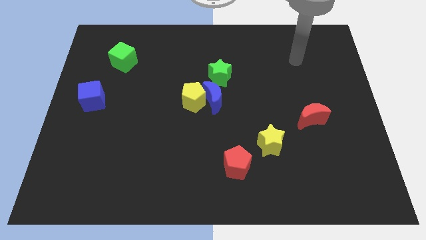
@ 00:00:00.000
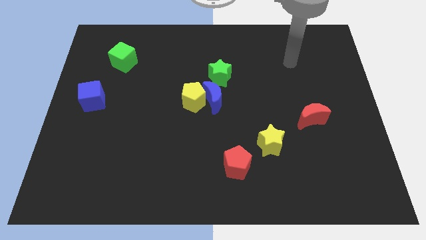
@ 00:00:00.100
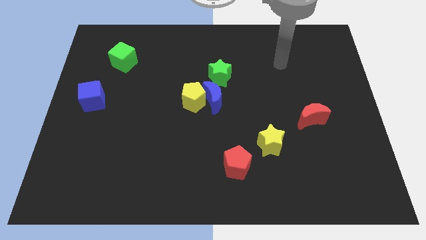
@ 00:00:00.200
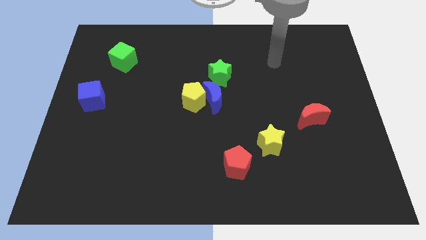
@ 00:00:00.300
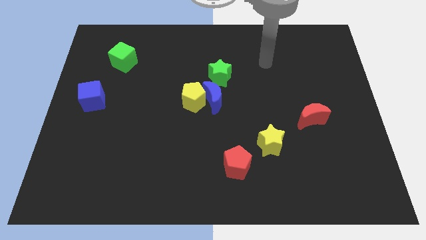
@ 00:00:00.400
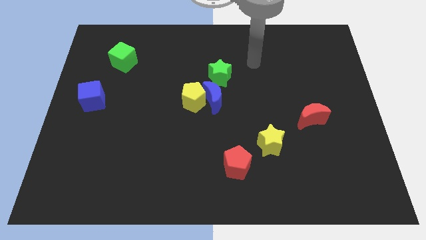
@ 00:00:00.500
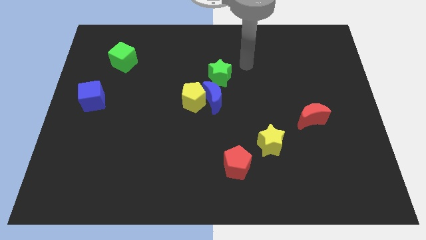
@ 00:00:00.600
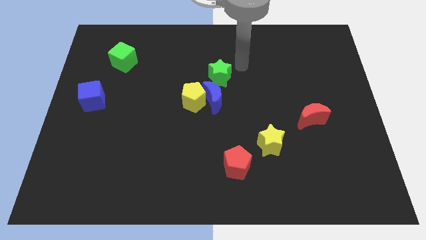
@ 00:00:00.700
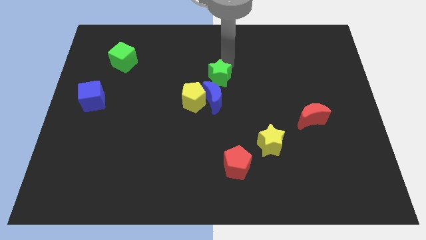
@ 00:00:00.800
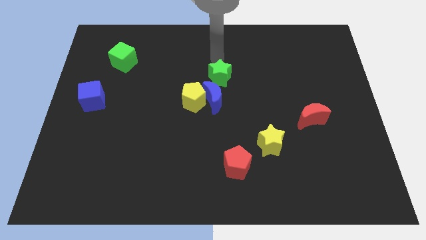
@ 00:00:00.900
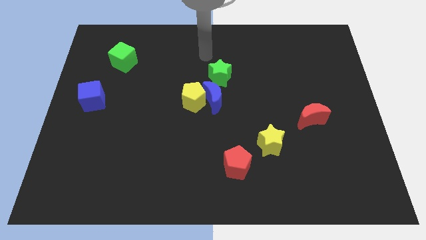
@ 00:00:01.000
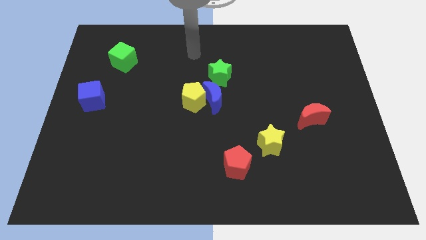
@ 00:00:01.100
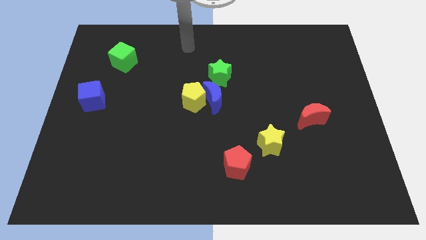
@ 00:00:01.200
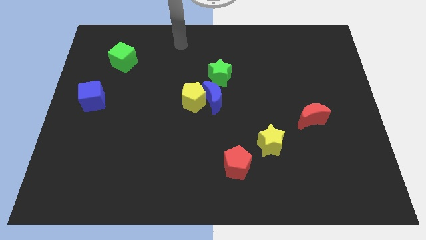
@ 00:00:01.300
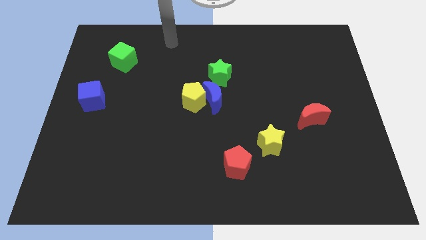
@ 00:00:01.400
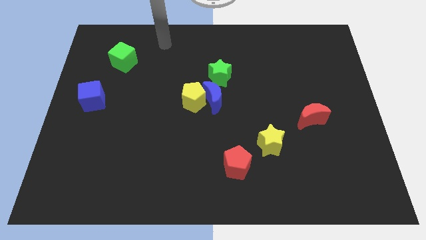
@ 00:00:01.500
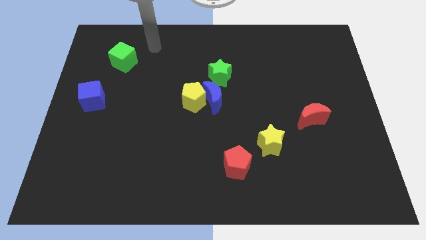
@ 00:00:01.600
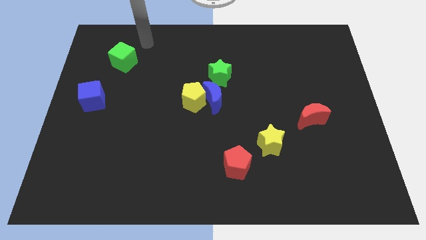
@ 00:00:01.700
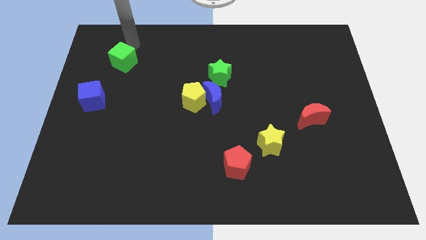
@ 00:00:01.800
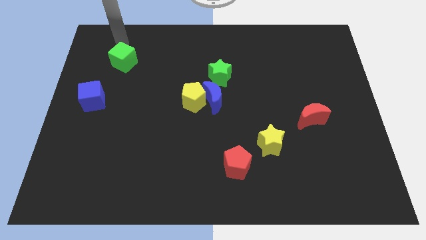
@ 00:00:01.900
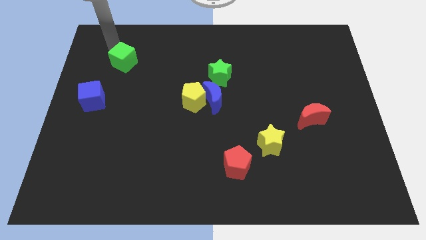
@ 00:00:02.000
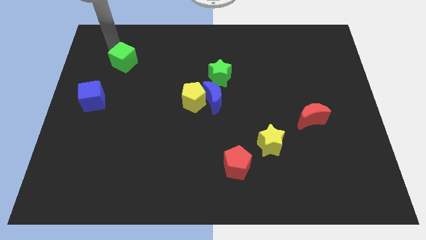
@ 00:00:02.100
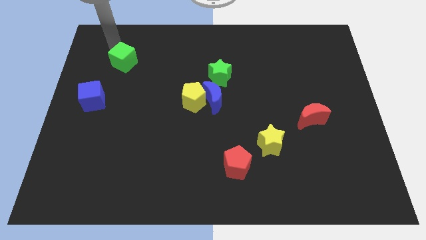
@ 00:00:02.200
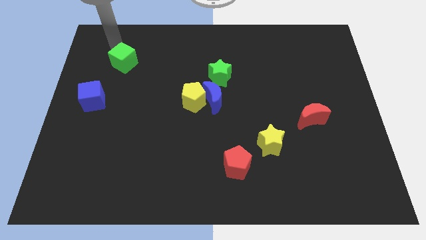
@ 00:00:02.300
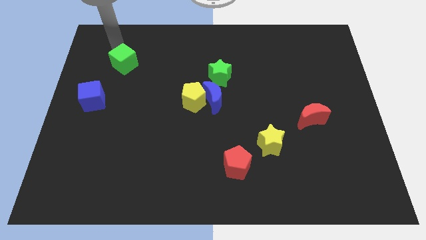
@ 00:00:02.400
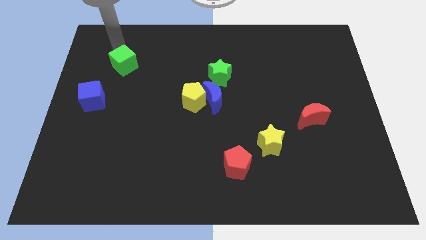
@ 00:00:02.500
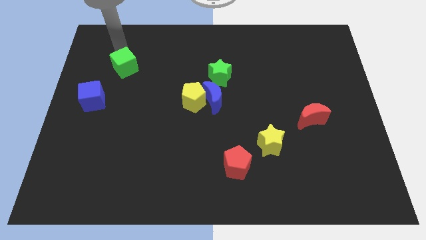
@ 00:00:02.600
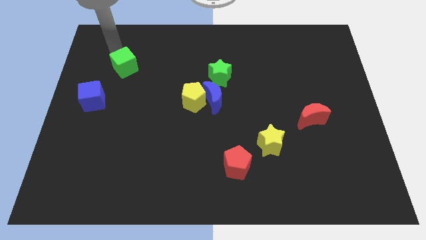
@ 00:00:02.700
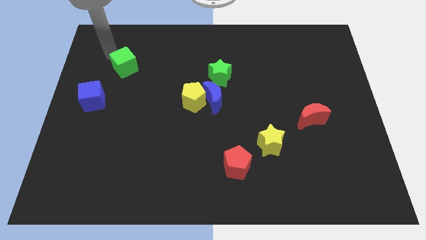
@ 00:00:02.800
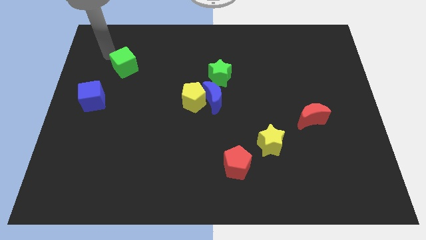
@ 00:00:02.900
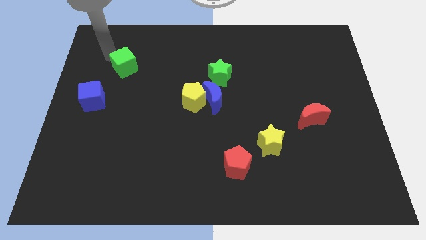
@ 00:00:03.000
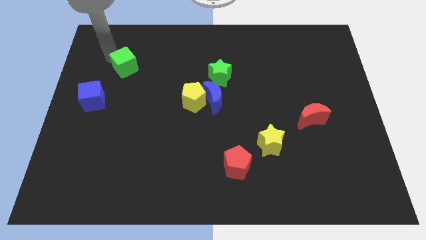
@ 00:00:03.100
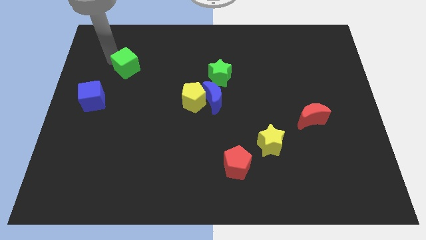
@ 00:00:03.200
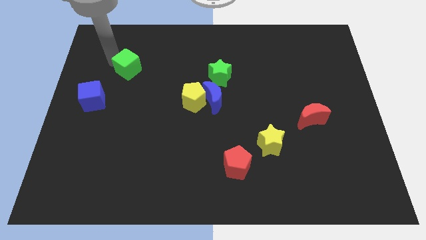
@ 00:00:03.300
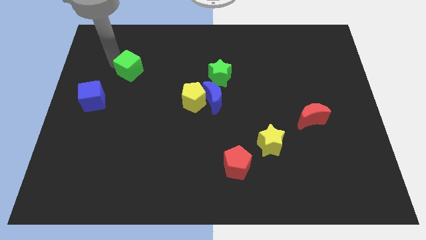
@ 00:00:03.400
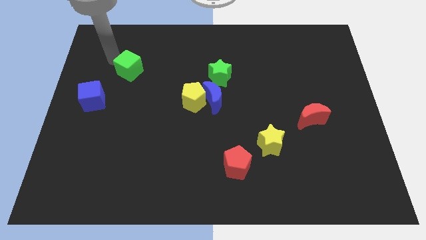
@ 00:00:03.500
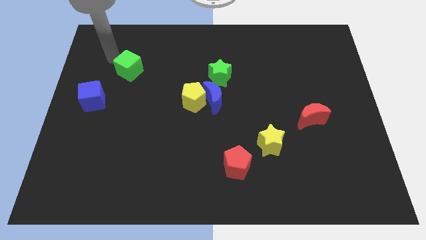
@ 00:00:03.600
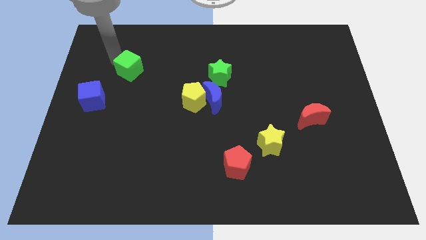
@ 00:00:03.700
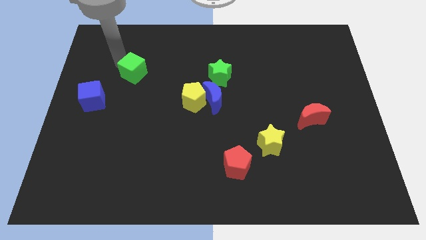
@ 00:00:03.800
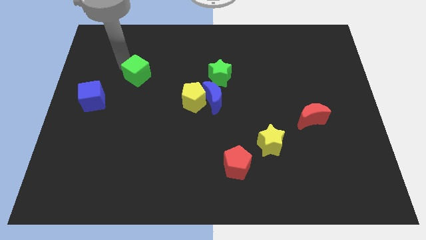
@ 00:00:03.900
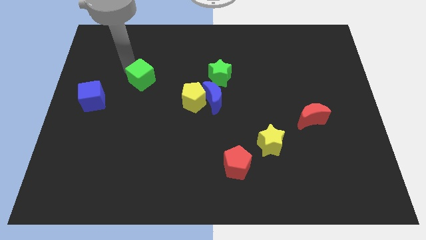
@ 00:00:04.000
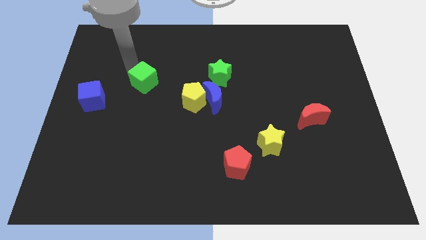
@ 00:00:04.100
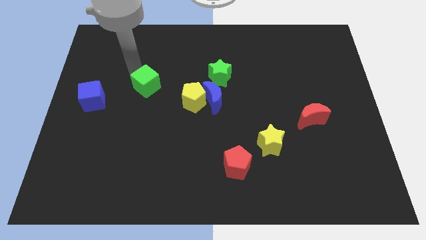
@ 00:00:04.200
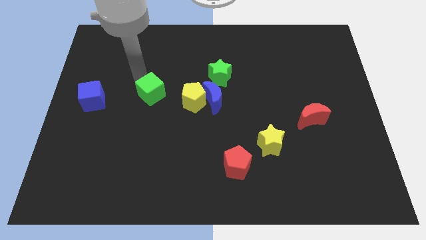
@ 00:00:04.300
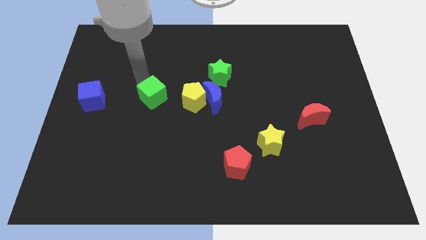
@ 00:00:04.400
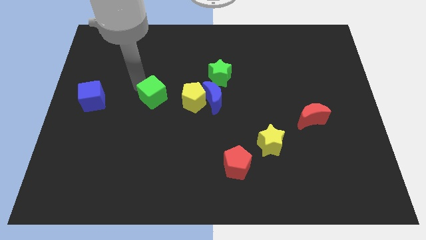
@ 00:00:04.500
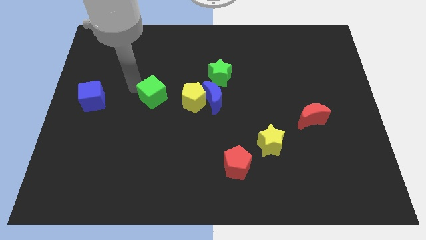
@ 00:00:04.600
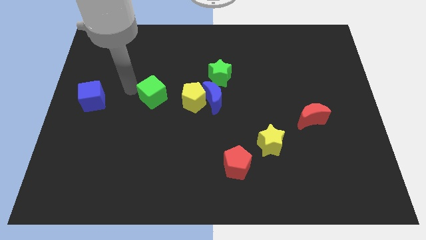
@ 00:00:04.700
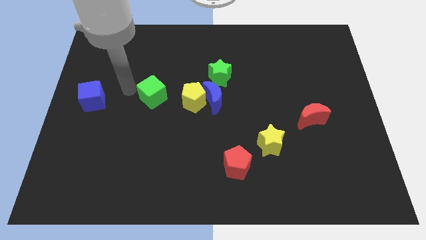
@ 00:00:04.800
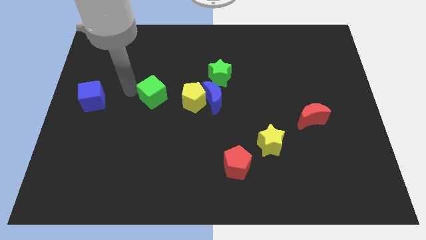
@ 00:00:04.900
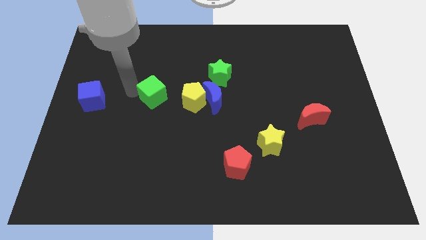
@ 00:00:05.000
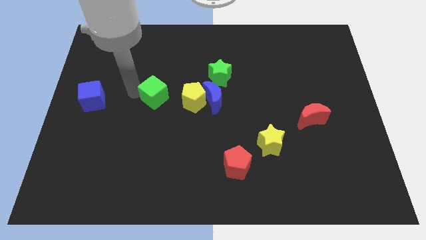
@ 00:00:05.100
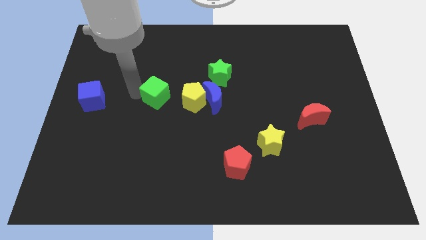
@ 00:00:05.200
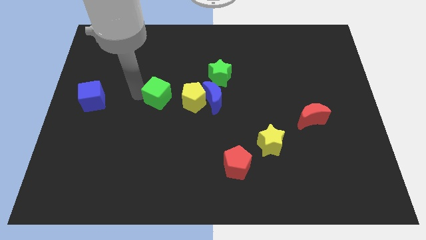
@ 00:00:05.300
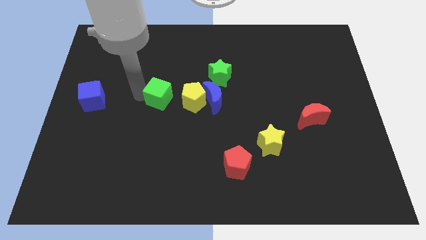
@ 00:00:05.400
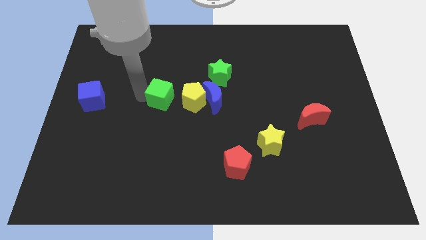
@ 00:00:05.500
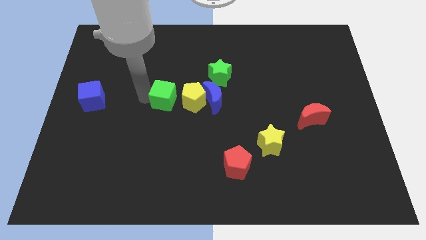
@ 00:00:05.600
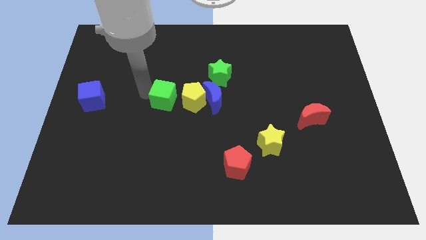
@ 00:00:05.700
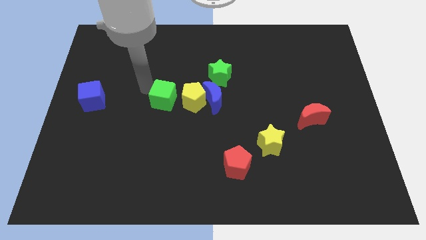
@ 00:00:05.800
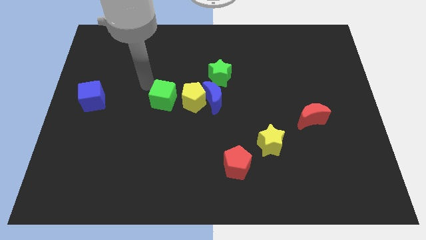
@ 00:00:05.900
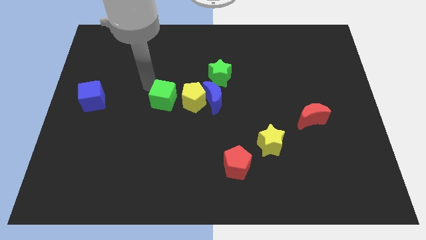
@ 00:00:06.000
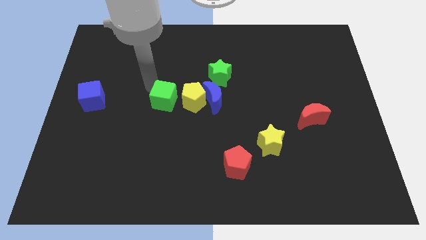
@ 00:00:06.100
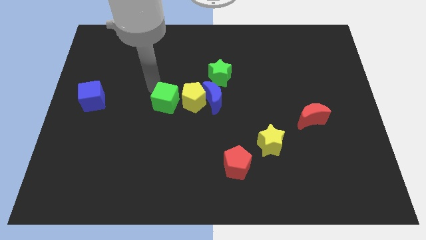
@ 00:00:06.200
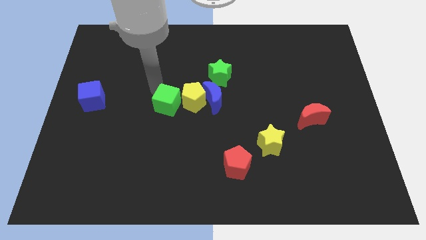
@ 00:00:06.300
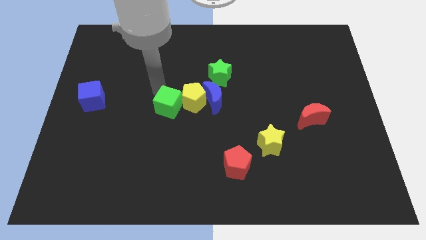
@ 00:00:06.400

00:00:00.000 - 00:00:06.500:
move the green cube diagonally downwards and right

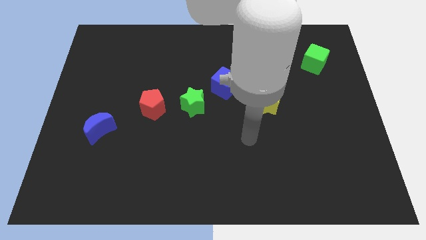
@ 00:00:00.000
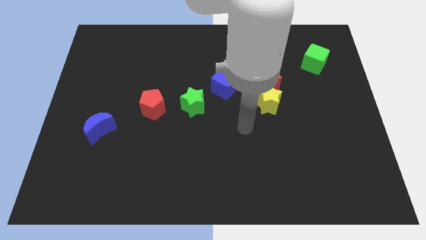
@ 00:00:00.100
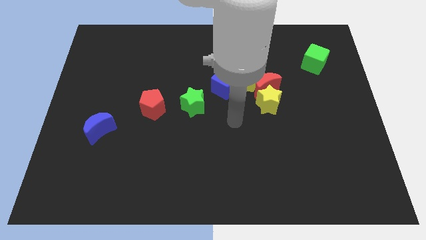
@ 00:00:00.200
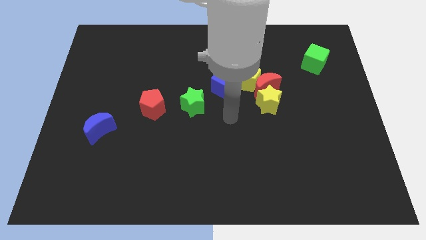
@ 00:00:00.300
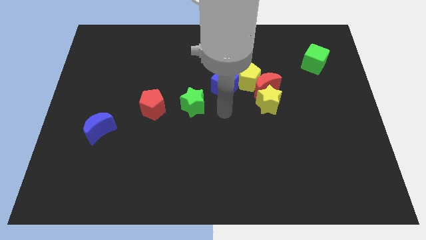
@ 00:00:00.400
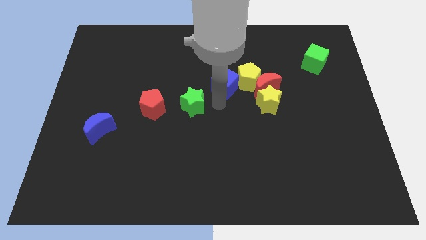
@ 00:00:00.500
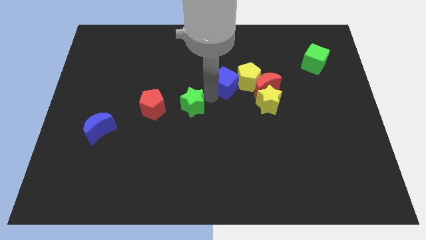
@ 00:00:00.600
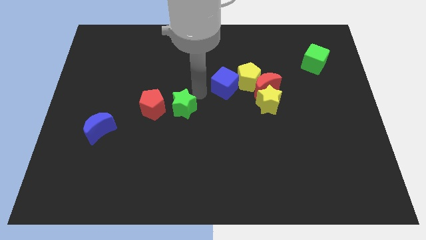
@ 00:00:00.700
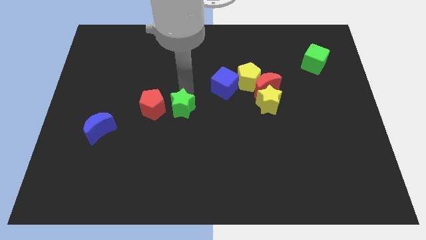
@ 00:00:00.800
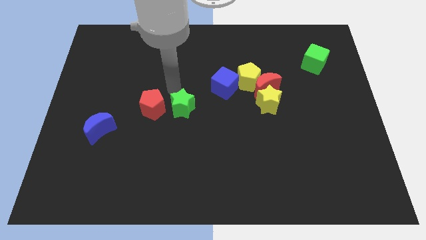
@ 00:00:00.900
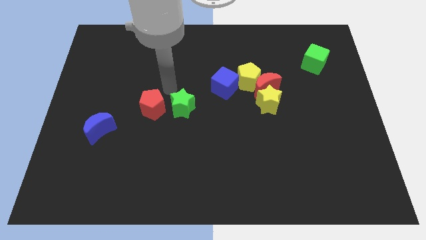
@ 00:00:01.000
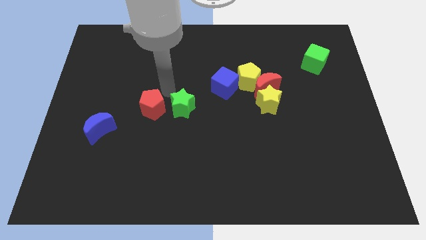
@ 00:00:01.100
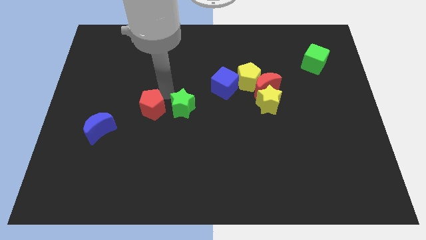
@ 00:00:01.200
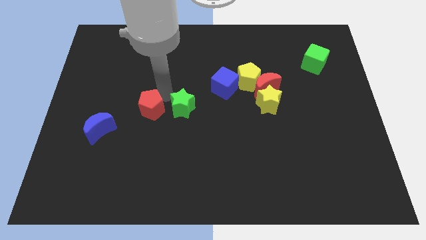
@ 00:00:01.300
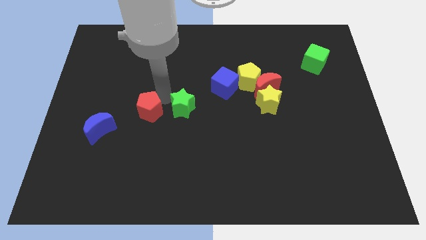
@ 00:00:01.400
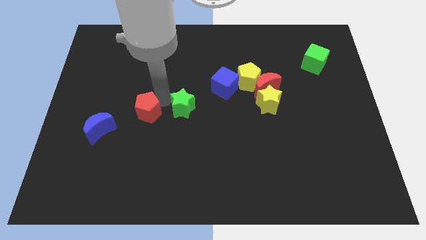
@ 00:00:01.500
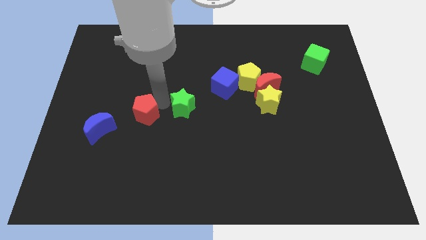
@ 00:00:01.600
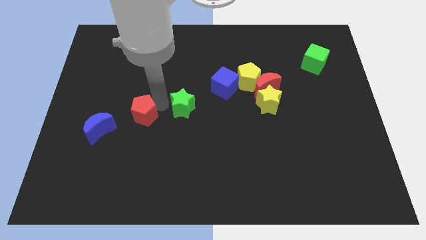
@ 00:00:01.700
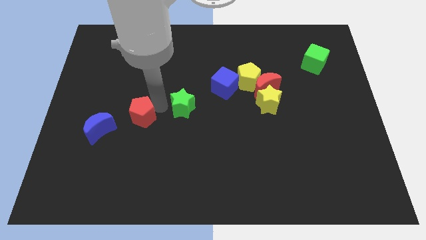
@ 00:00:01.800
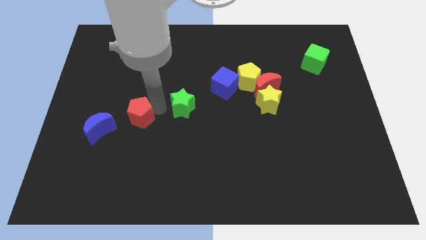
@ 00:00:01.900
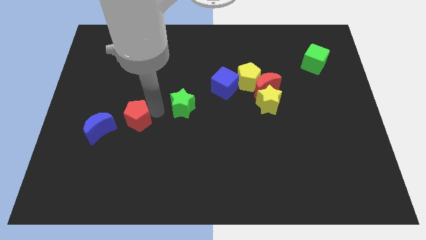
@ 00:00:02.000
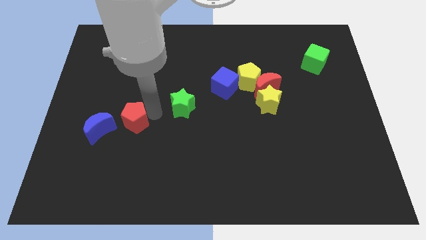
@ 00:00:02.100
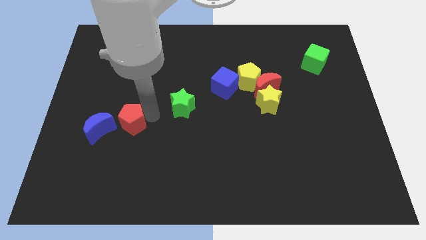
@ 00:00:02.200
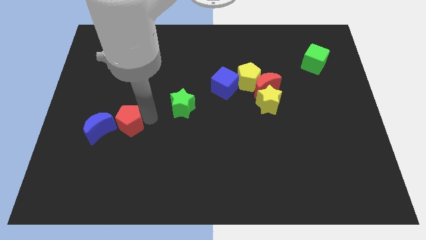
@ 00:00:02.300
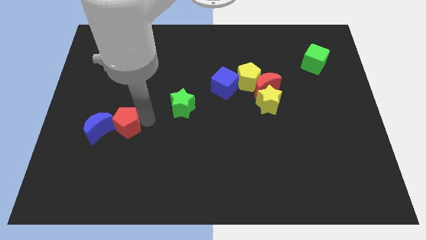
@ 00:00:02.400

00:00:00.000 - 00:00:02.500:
slightly slide the red pentagon downwards and left diagonally
